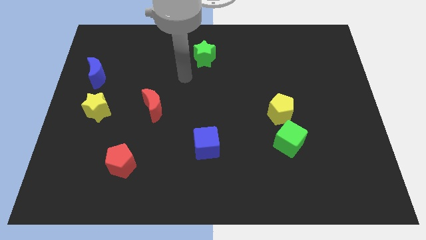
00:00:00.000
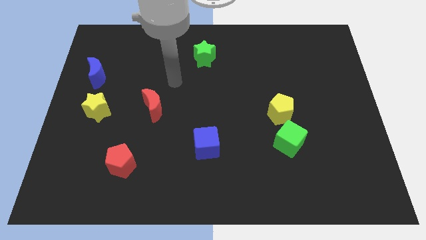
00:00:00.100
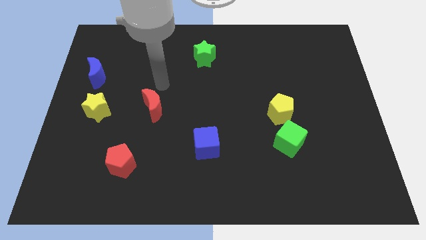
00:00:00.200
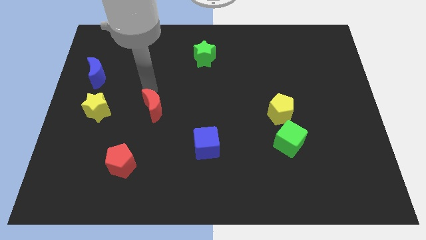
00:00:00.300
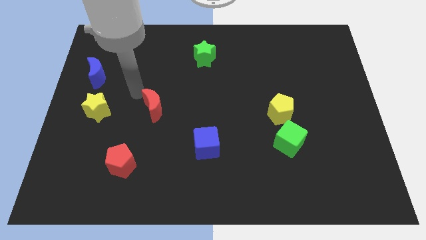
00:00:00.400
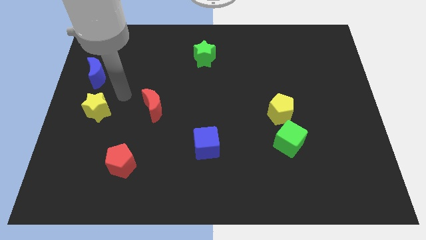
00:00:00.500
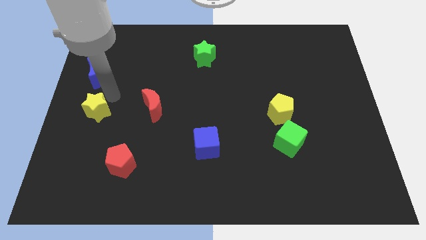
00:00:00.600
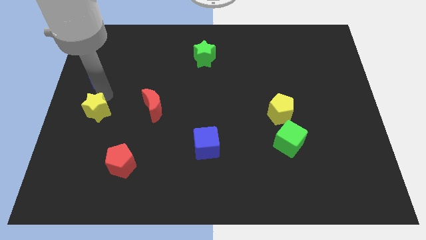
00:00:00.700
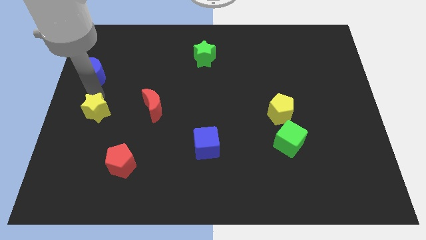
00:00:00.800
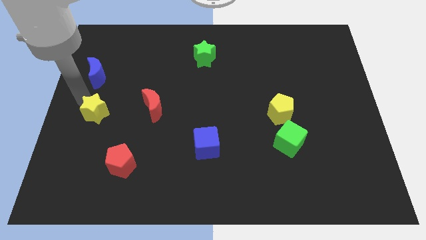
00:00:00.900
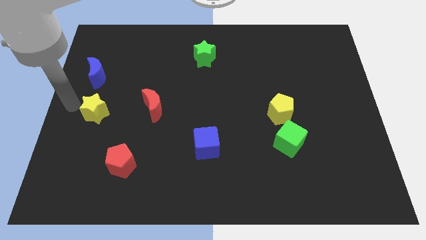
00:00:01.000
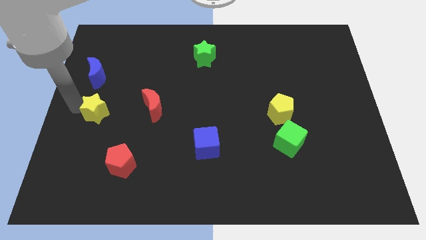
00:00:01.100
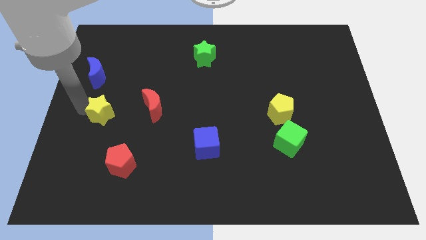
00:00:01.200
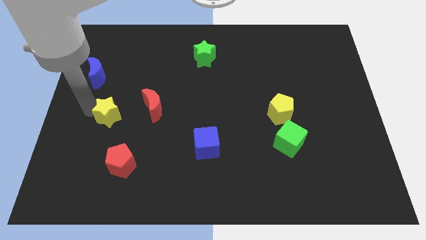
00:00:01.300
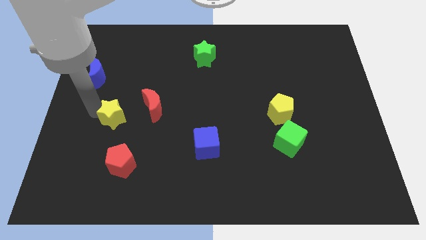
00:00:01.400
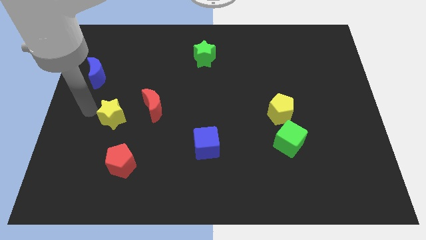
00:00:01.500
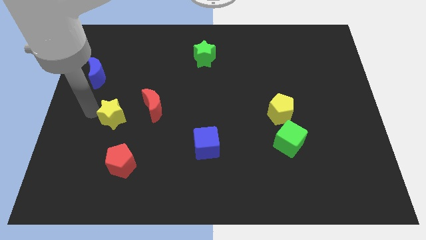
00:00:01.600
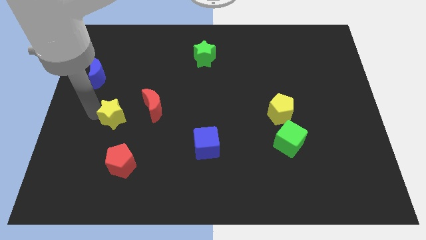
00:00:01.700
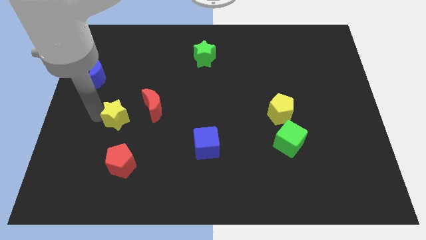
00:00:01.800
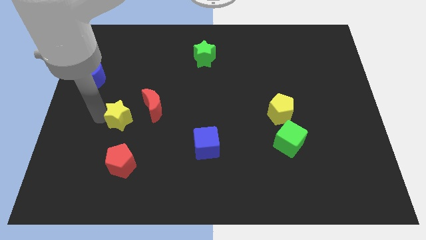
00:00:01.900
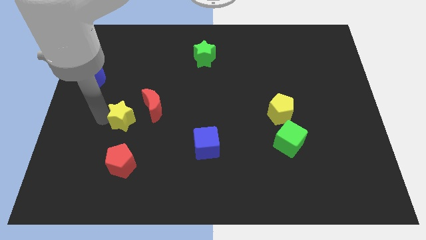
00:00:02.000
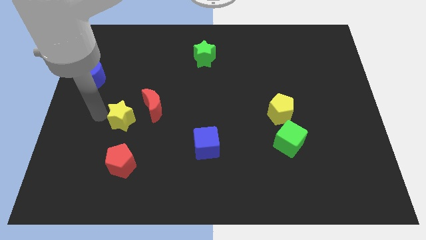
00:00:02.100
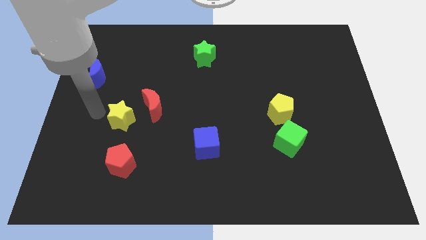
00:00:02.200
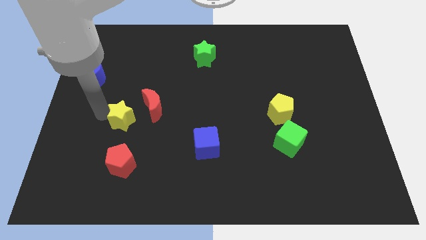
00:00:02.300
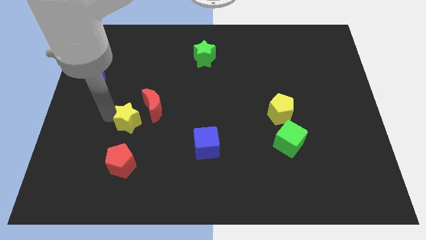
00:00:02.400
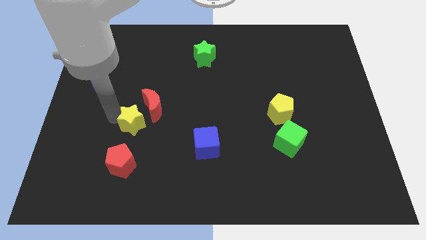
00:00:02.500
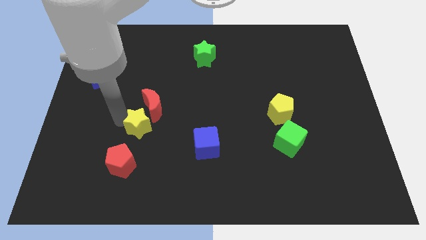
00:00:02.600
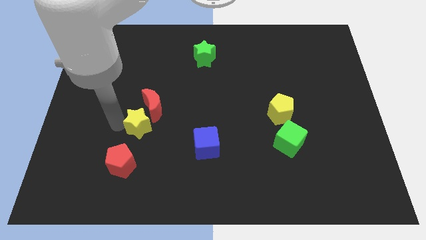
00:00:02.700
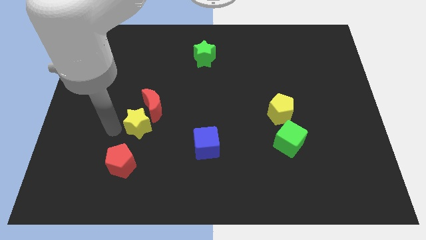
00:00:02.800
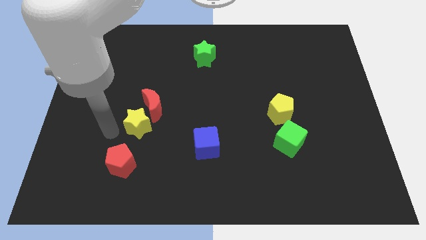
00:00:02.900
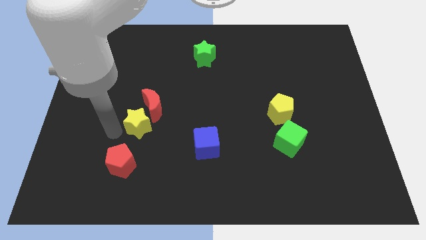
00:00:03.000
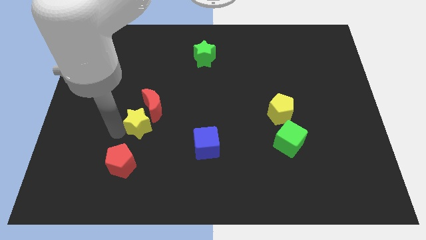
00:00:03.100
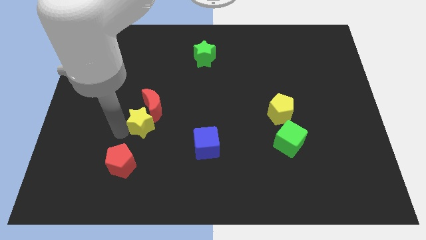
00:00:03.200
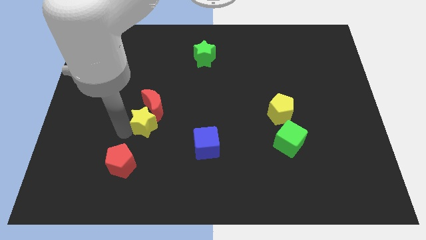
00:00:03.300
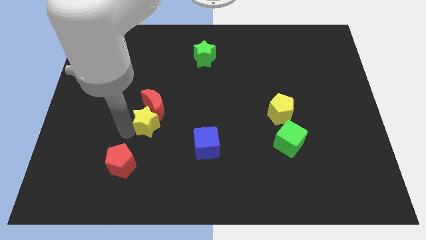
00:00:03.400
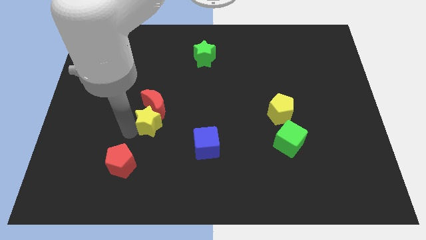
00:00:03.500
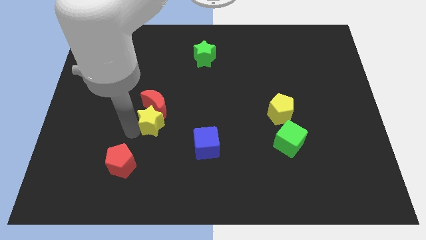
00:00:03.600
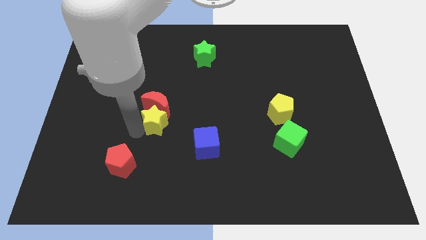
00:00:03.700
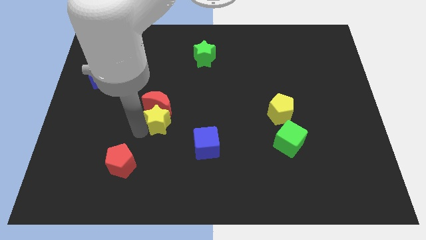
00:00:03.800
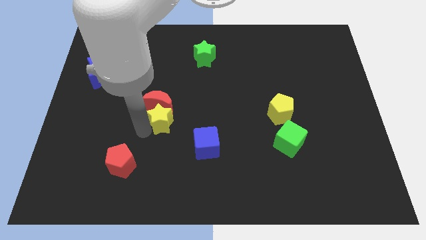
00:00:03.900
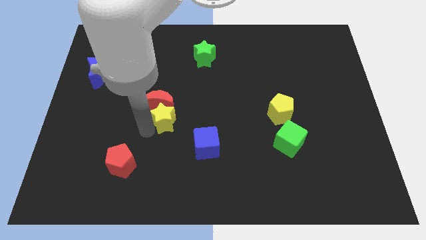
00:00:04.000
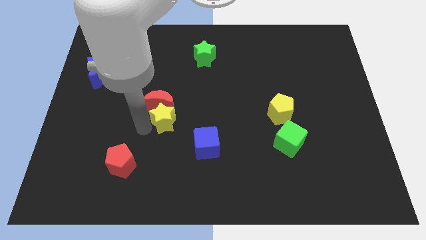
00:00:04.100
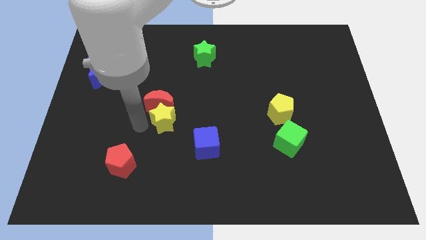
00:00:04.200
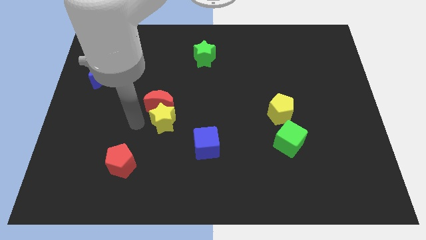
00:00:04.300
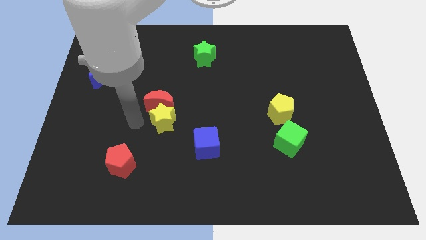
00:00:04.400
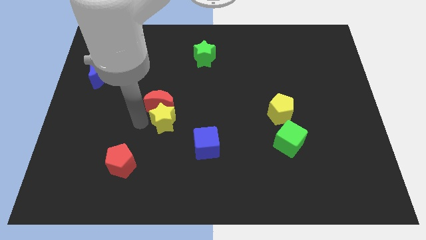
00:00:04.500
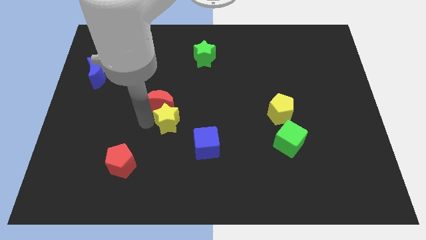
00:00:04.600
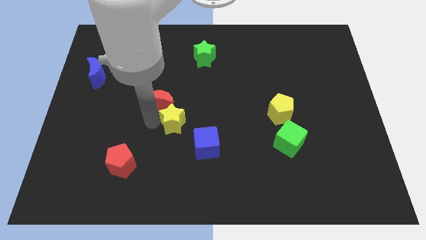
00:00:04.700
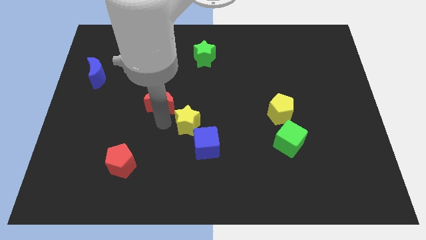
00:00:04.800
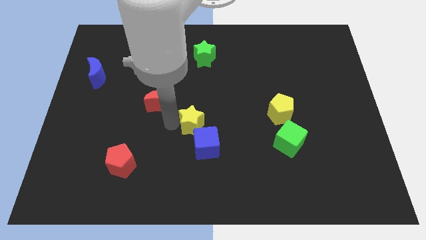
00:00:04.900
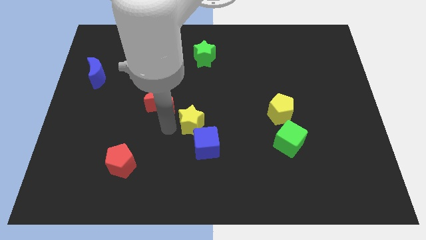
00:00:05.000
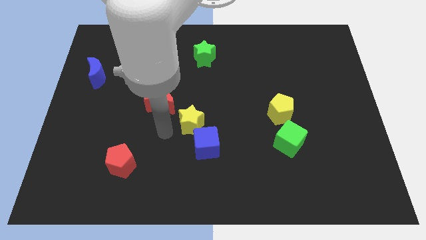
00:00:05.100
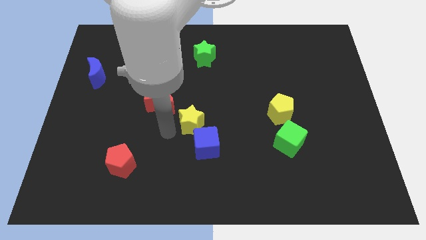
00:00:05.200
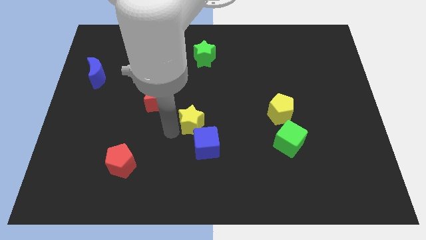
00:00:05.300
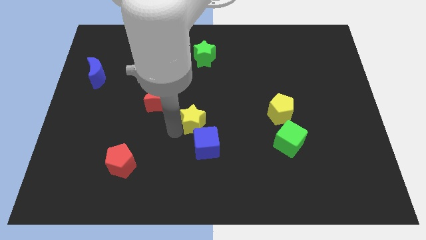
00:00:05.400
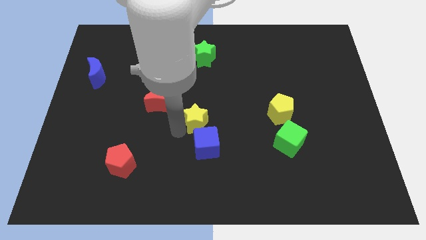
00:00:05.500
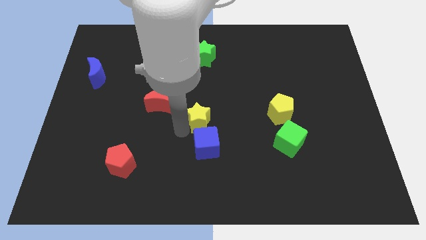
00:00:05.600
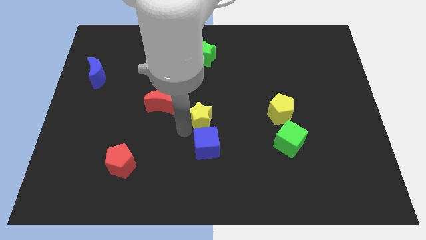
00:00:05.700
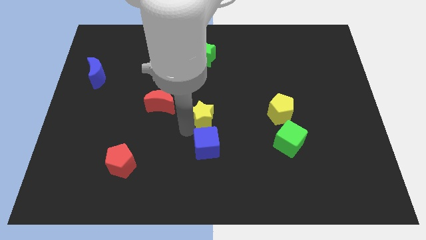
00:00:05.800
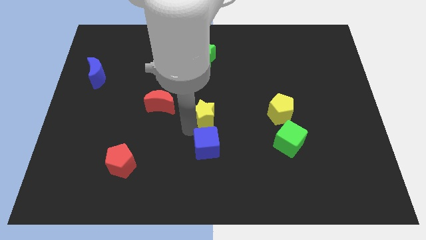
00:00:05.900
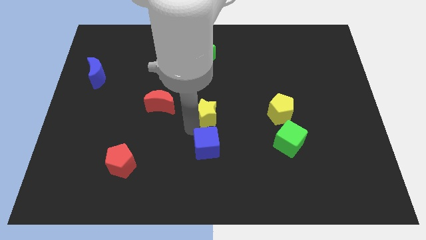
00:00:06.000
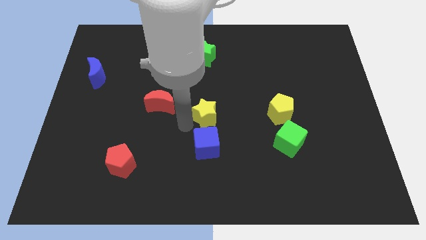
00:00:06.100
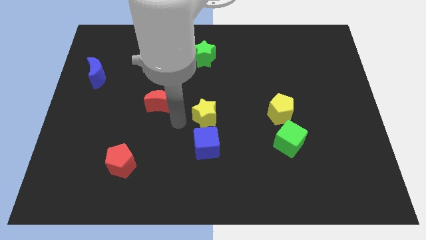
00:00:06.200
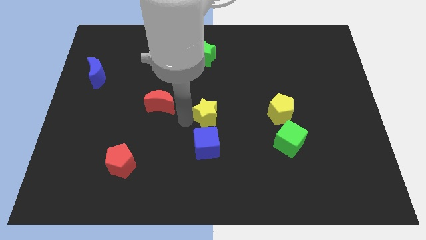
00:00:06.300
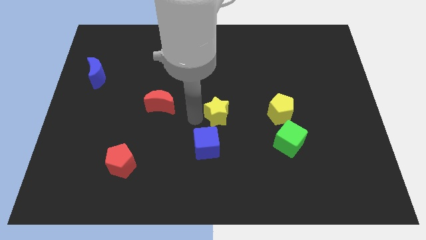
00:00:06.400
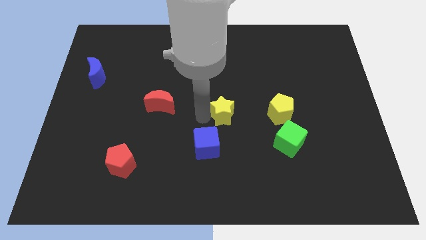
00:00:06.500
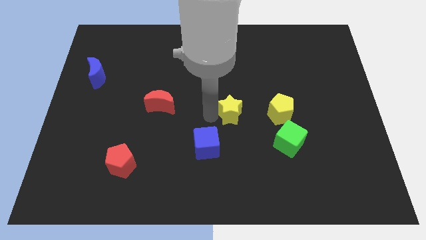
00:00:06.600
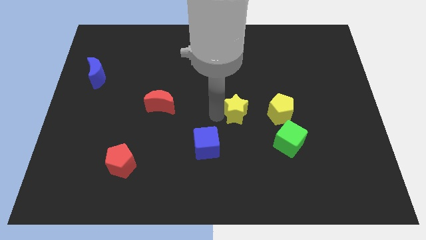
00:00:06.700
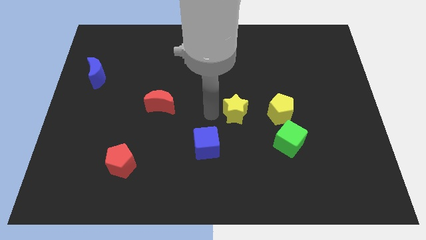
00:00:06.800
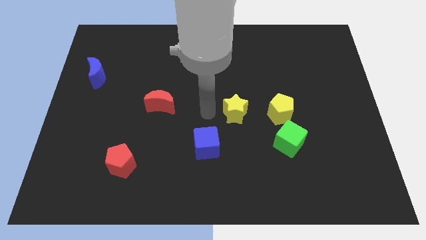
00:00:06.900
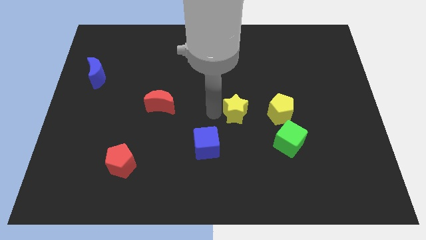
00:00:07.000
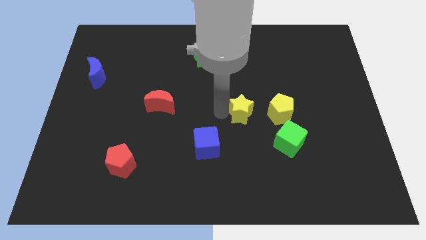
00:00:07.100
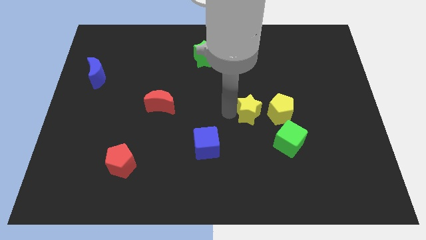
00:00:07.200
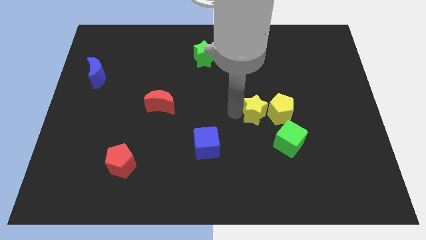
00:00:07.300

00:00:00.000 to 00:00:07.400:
move the yellow star close to the yellow pentagon
